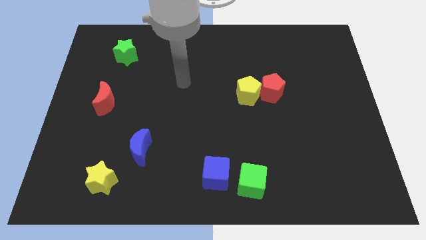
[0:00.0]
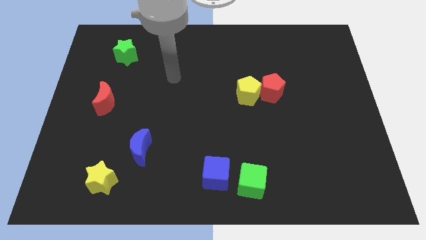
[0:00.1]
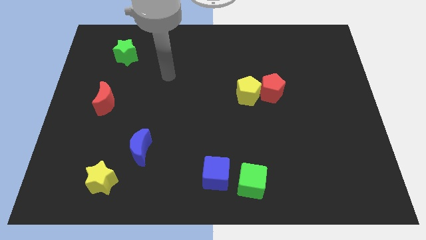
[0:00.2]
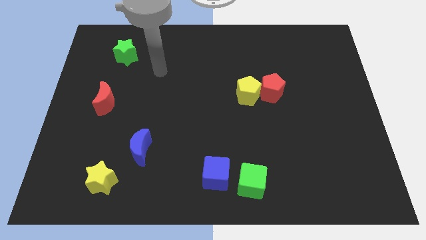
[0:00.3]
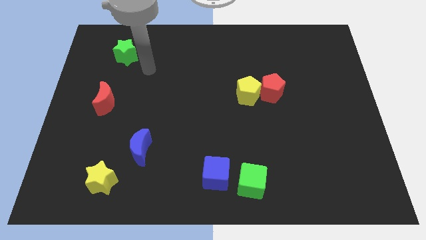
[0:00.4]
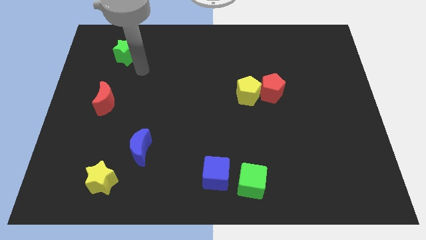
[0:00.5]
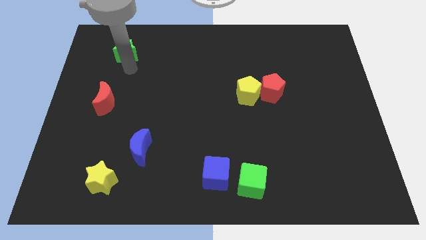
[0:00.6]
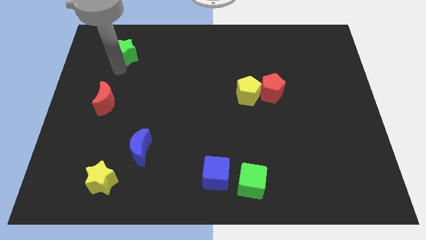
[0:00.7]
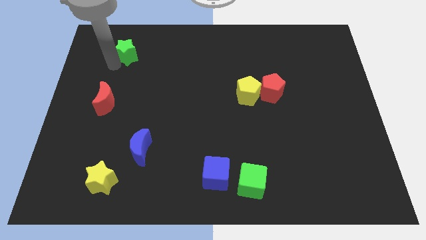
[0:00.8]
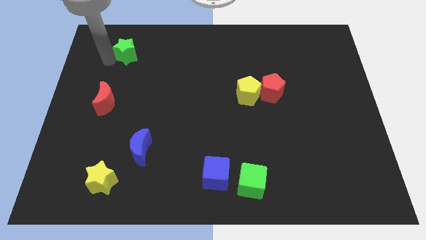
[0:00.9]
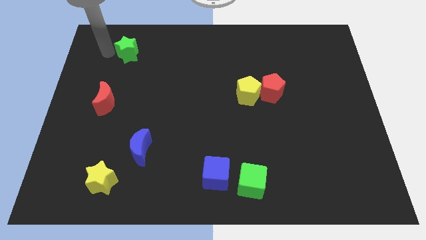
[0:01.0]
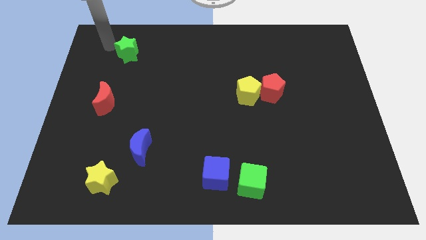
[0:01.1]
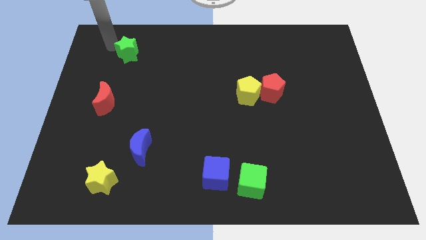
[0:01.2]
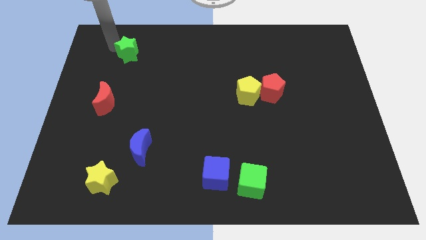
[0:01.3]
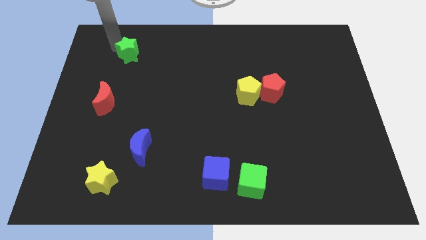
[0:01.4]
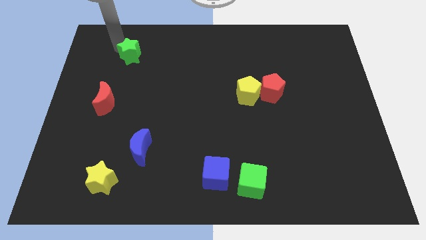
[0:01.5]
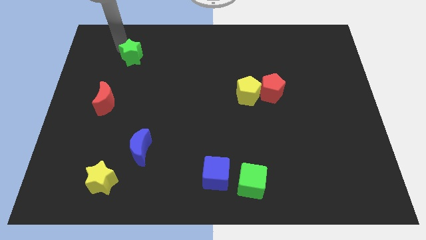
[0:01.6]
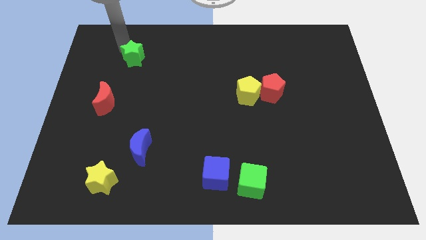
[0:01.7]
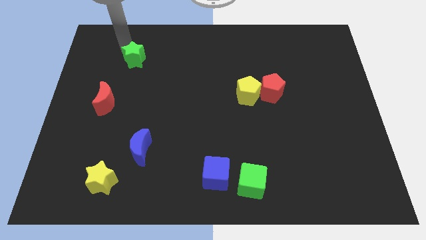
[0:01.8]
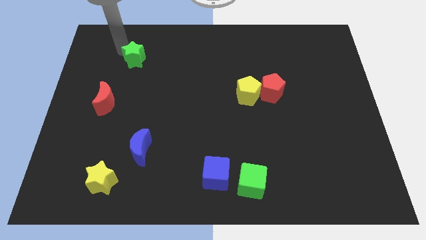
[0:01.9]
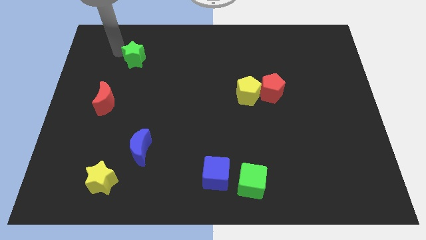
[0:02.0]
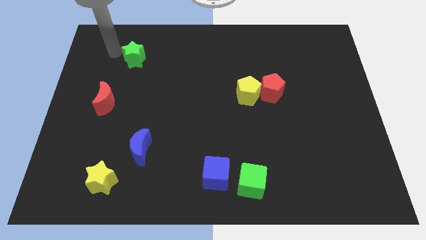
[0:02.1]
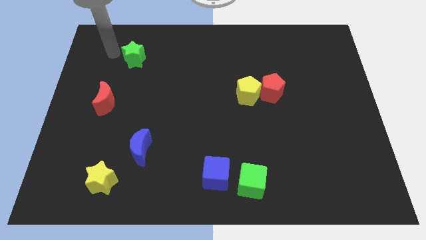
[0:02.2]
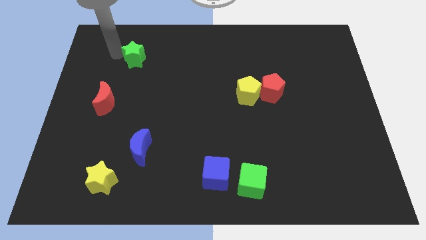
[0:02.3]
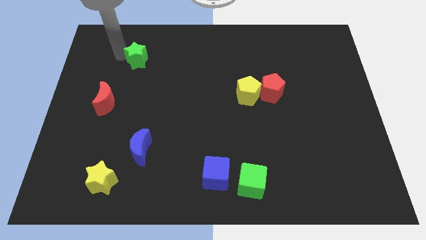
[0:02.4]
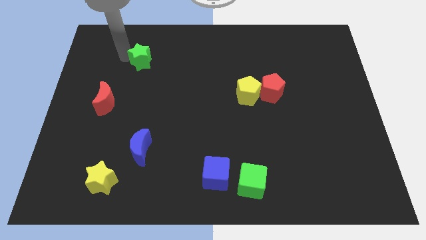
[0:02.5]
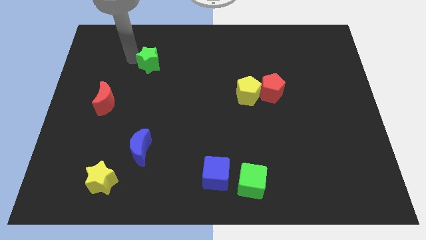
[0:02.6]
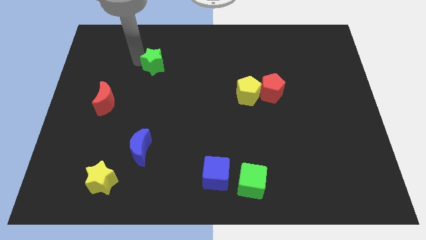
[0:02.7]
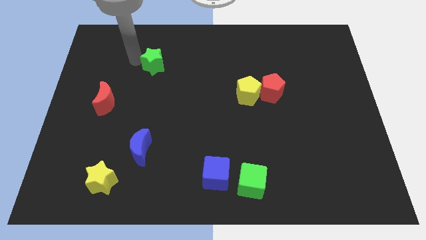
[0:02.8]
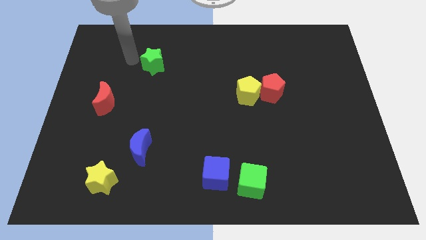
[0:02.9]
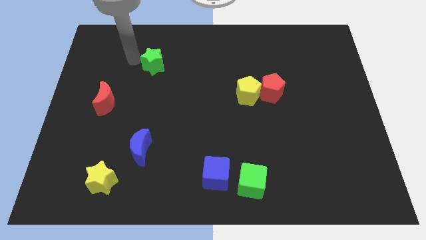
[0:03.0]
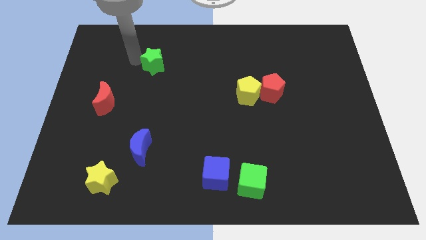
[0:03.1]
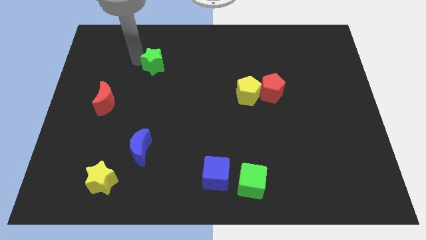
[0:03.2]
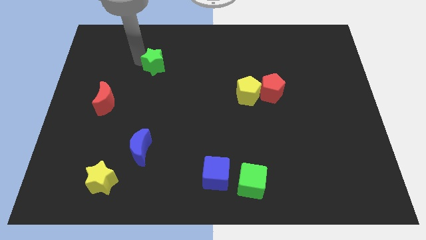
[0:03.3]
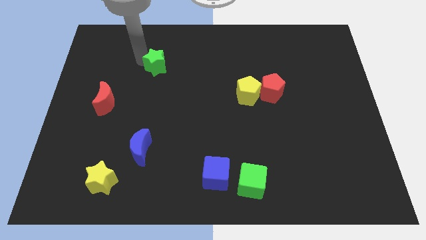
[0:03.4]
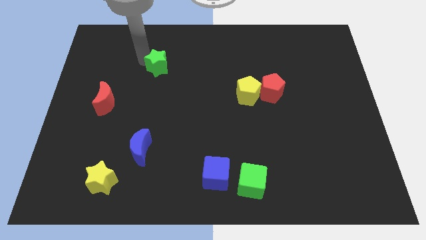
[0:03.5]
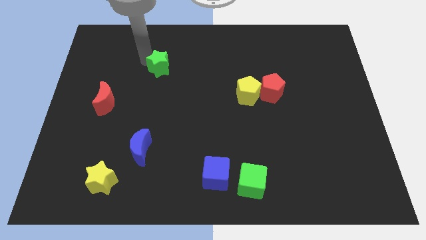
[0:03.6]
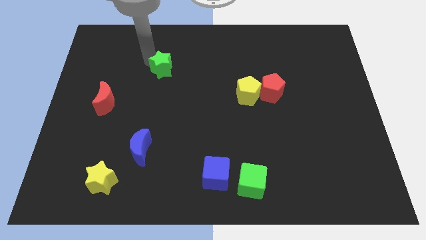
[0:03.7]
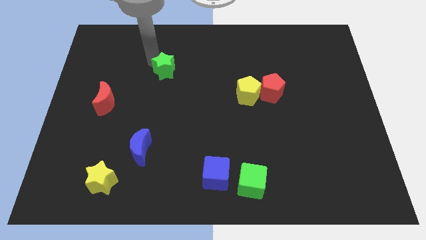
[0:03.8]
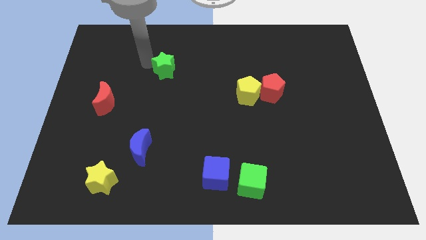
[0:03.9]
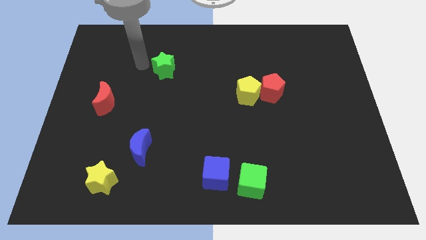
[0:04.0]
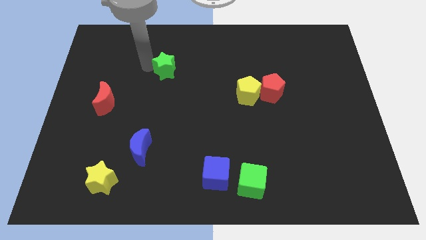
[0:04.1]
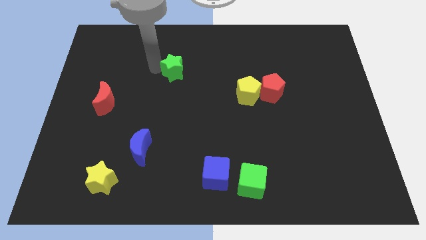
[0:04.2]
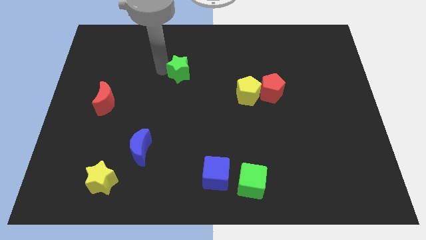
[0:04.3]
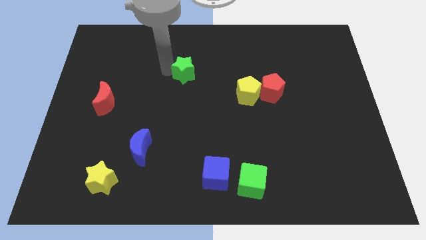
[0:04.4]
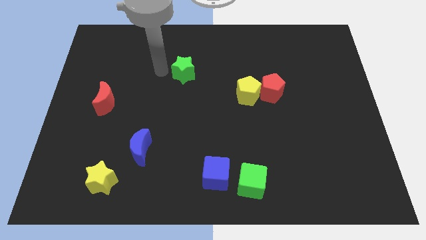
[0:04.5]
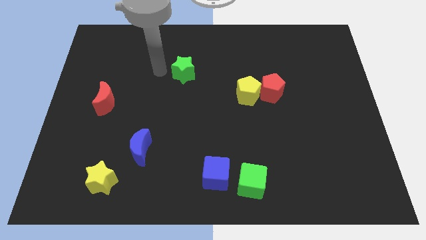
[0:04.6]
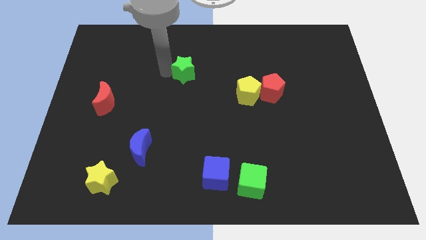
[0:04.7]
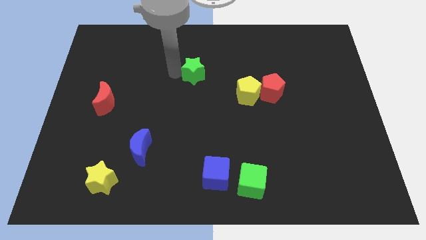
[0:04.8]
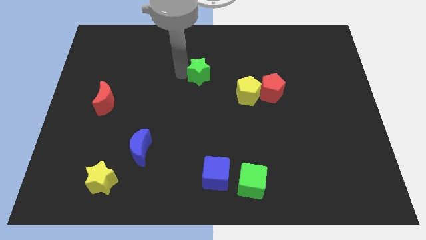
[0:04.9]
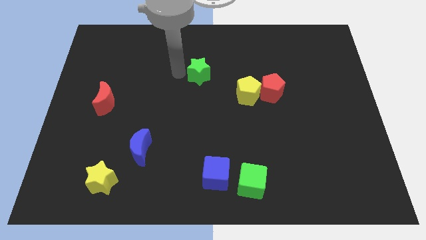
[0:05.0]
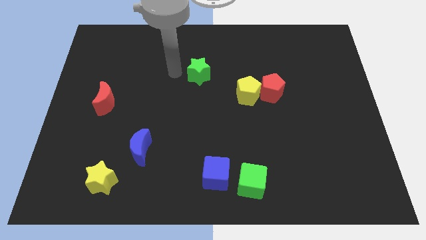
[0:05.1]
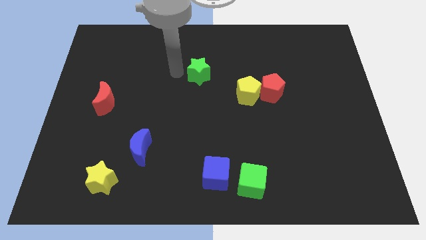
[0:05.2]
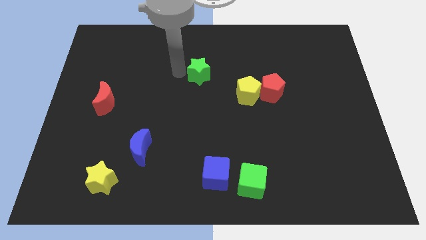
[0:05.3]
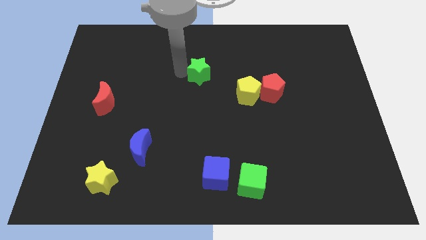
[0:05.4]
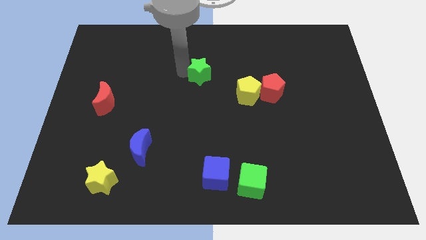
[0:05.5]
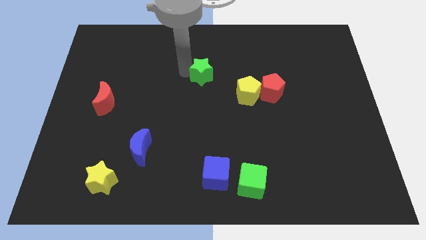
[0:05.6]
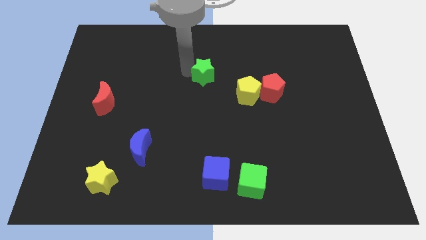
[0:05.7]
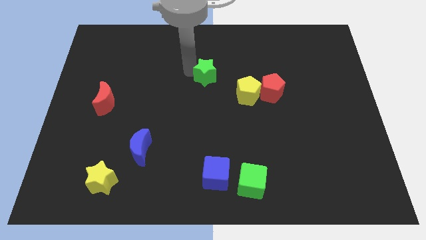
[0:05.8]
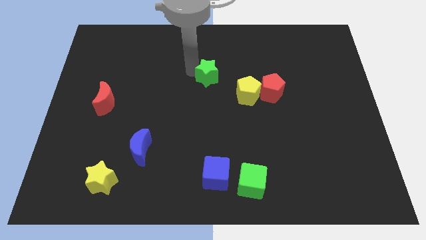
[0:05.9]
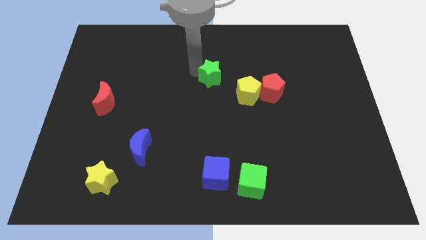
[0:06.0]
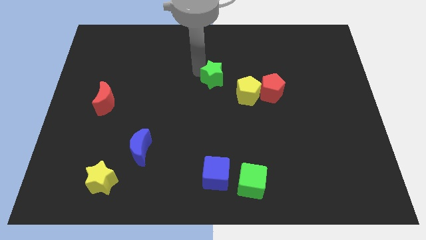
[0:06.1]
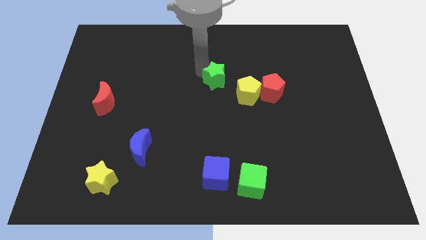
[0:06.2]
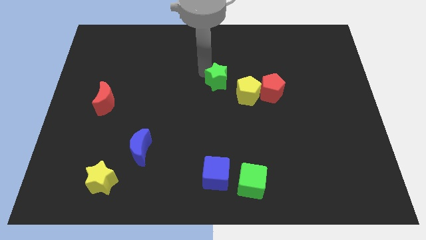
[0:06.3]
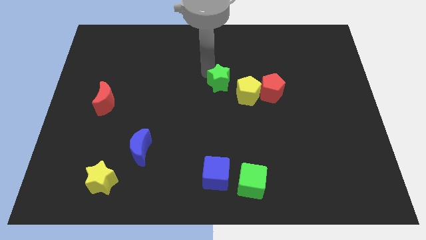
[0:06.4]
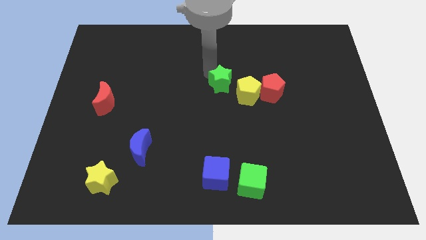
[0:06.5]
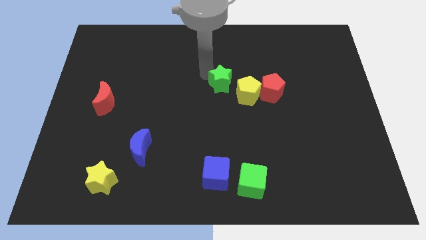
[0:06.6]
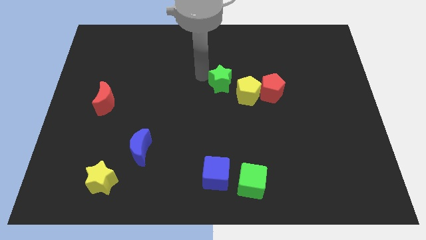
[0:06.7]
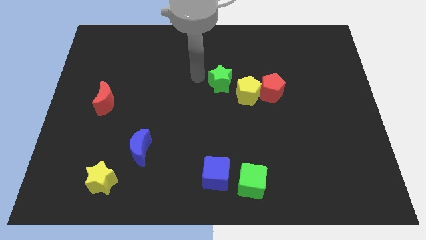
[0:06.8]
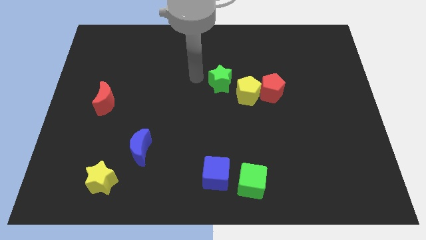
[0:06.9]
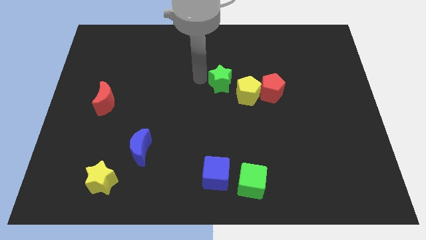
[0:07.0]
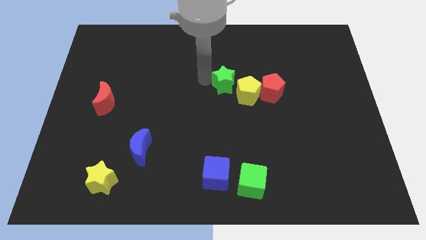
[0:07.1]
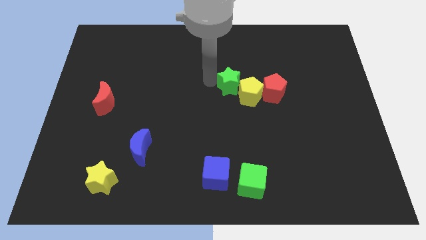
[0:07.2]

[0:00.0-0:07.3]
slide the green star towards the yellow pentagon
